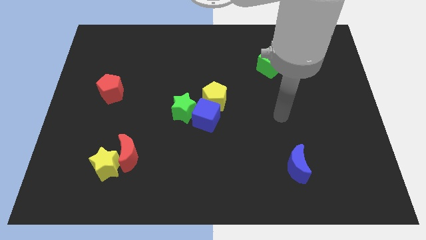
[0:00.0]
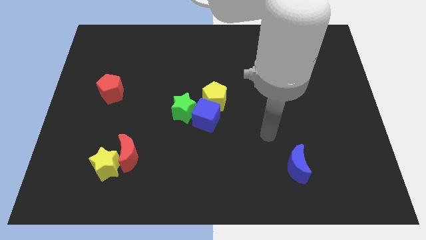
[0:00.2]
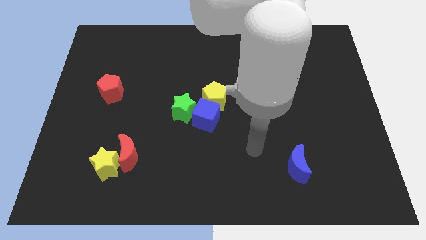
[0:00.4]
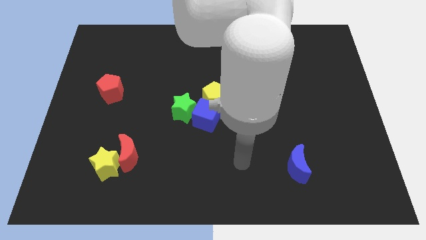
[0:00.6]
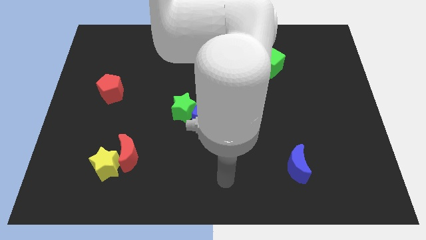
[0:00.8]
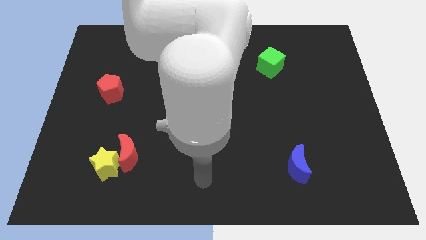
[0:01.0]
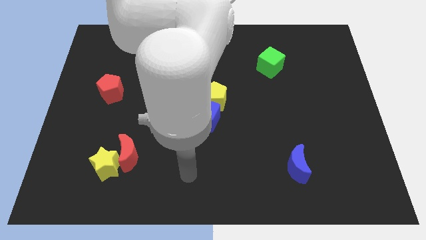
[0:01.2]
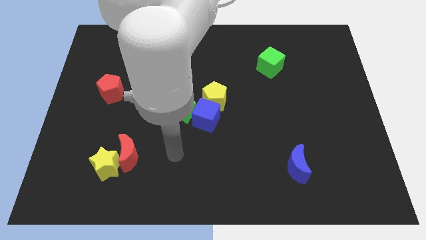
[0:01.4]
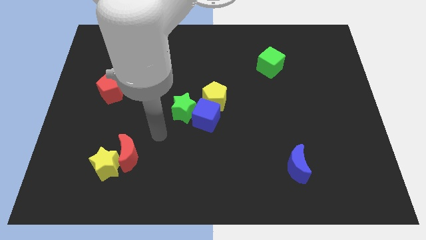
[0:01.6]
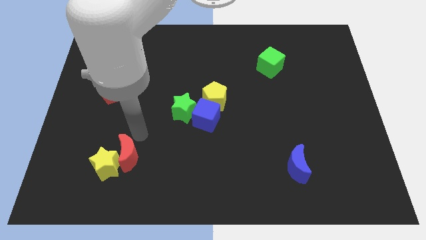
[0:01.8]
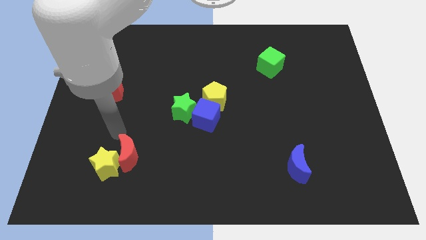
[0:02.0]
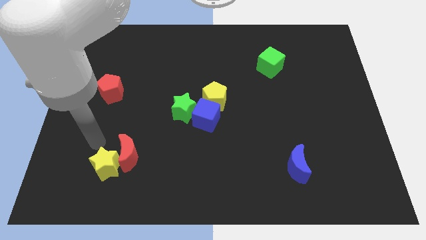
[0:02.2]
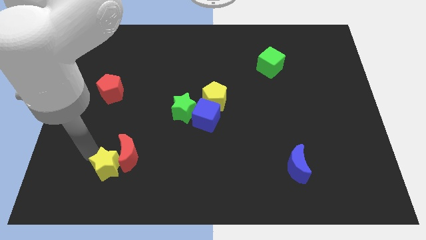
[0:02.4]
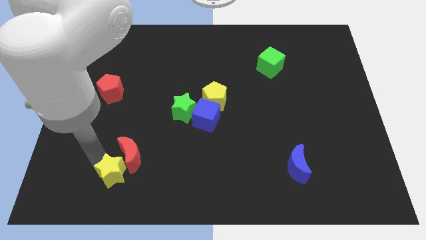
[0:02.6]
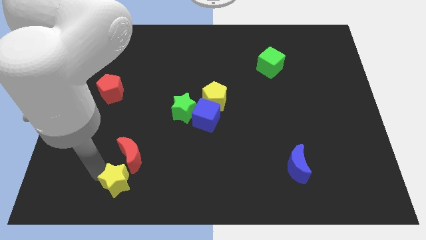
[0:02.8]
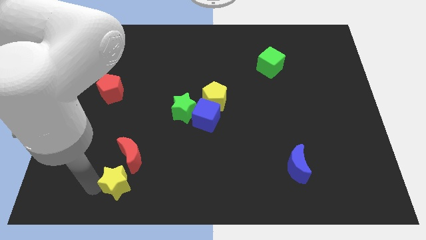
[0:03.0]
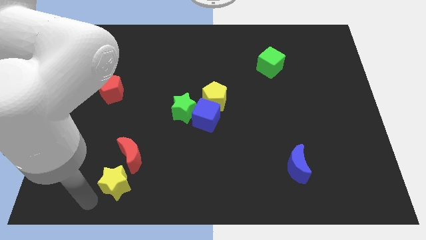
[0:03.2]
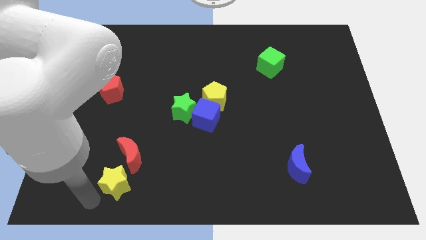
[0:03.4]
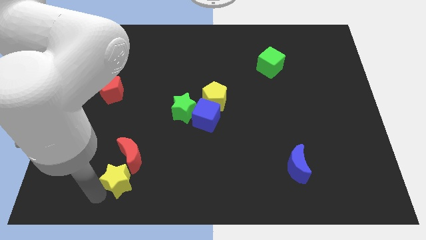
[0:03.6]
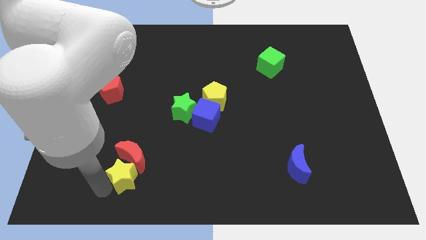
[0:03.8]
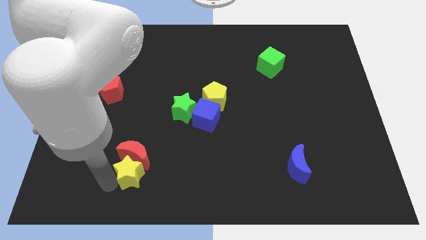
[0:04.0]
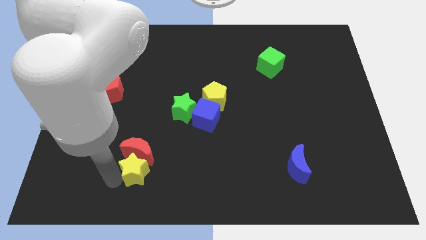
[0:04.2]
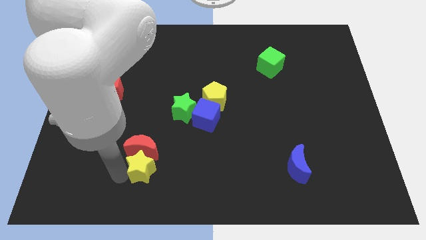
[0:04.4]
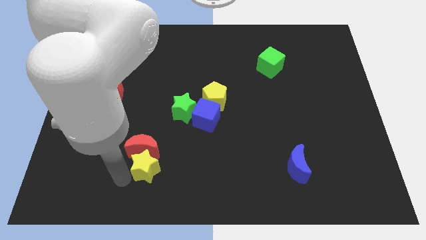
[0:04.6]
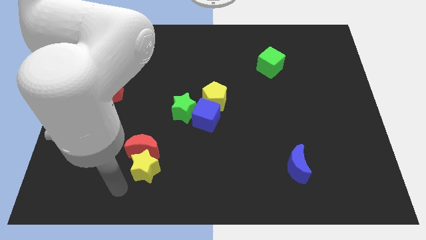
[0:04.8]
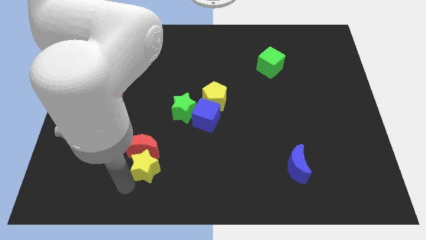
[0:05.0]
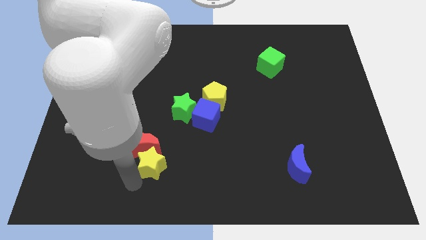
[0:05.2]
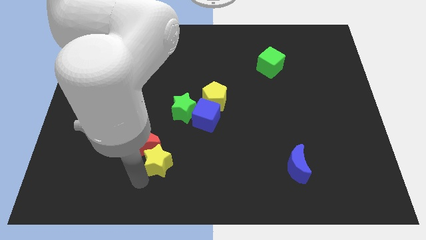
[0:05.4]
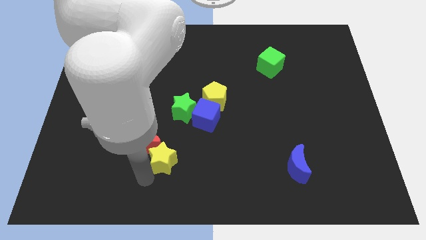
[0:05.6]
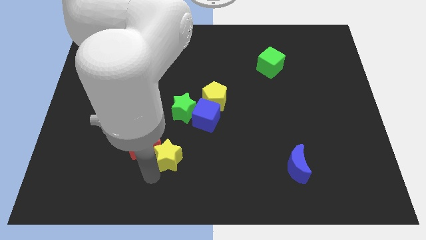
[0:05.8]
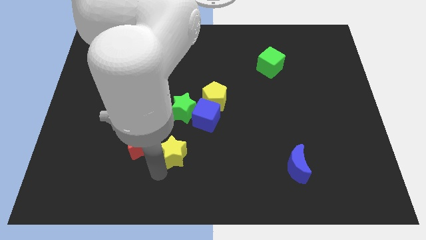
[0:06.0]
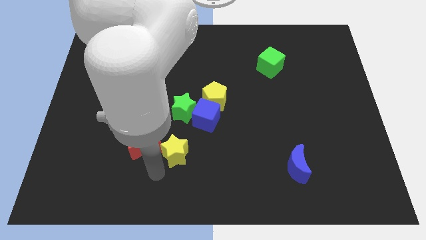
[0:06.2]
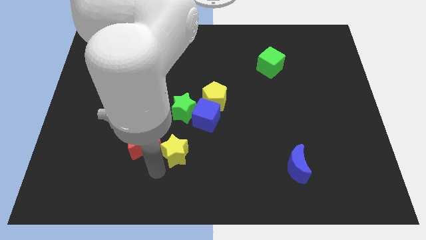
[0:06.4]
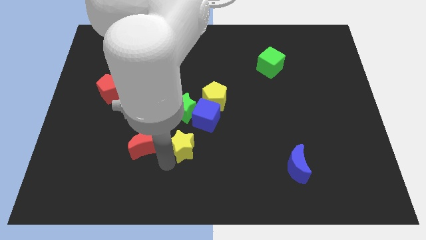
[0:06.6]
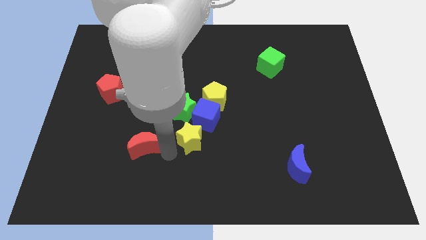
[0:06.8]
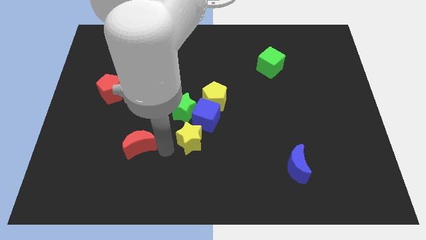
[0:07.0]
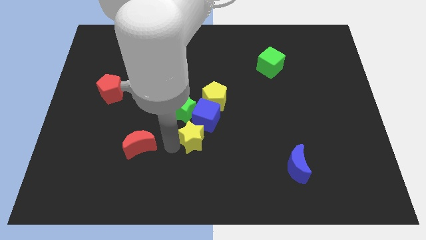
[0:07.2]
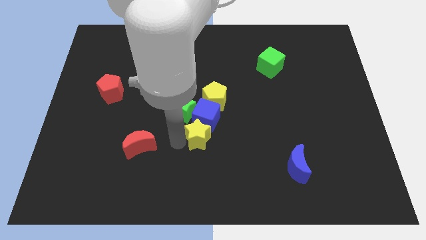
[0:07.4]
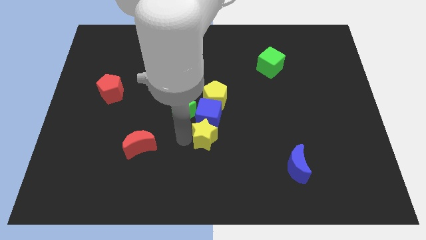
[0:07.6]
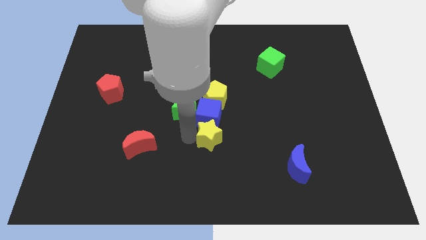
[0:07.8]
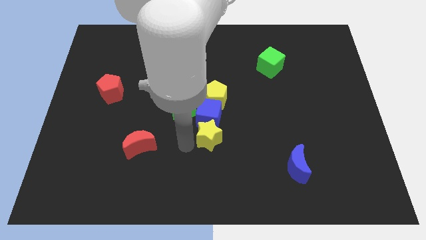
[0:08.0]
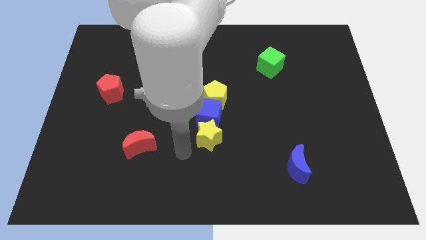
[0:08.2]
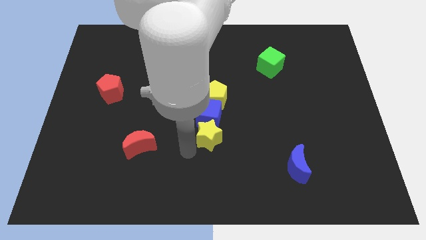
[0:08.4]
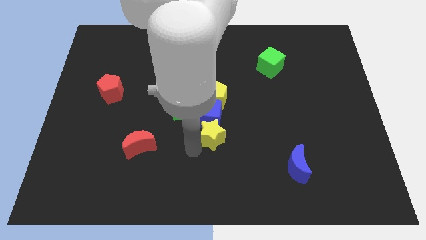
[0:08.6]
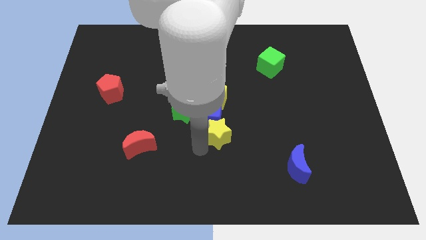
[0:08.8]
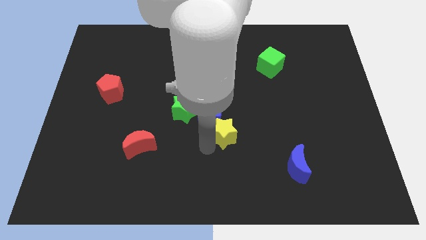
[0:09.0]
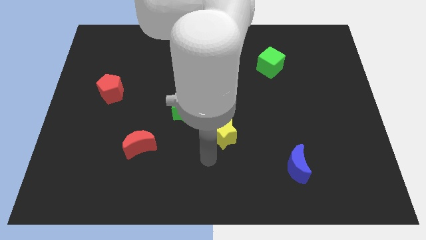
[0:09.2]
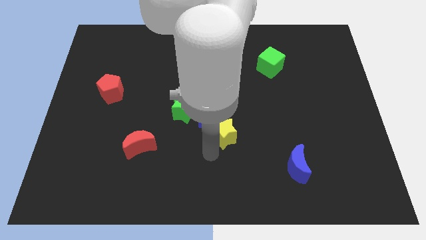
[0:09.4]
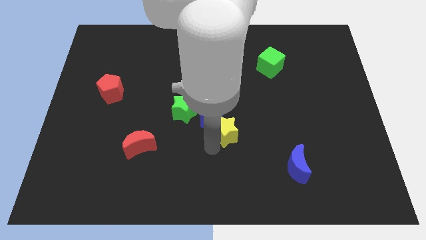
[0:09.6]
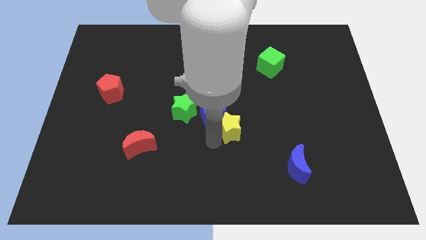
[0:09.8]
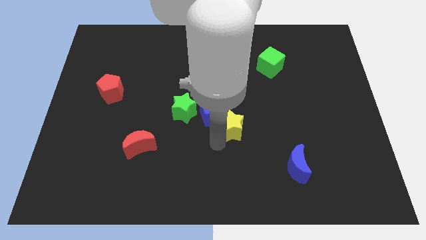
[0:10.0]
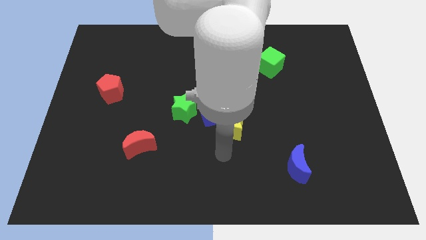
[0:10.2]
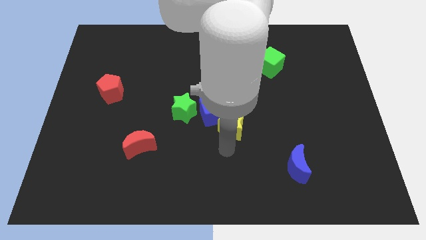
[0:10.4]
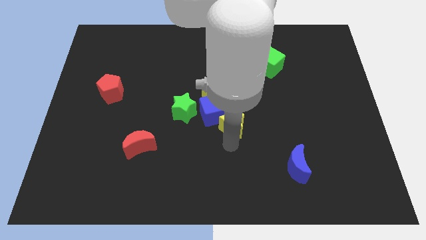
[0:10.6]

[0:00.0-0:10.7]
put the yellow star diagonally down and to the right of the yellow pentagon

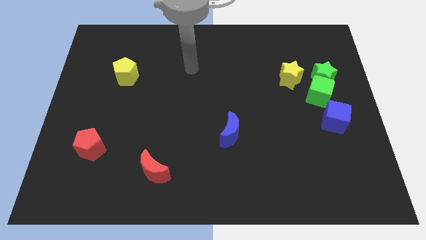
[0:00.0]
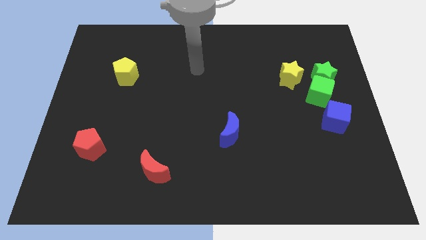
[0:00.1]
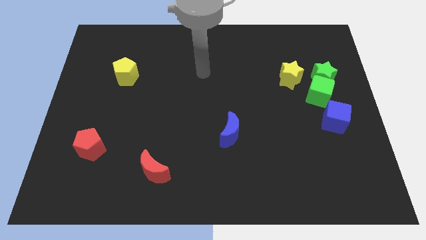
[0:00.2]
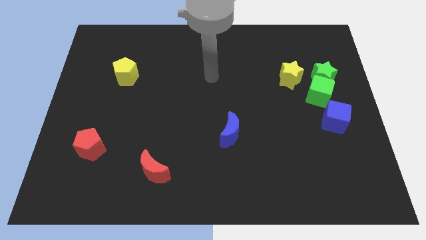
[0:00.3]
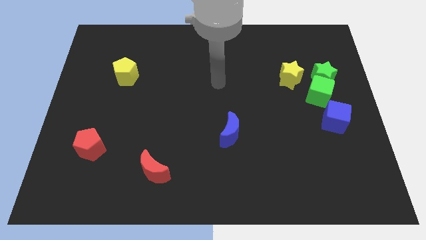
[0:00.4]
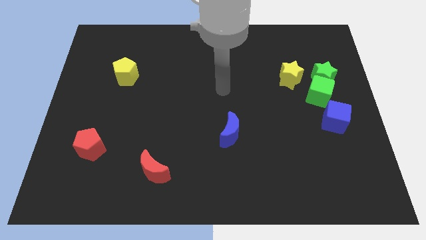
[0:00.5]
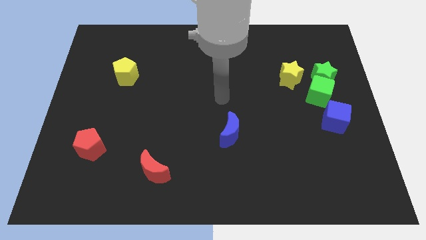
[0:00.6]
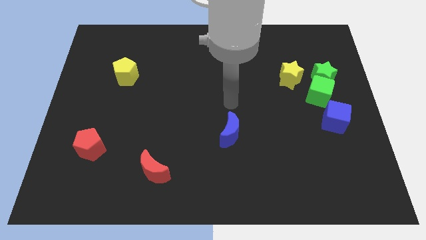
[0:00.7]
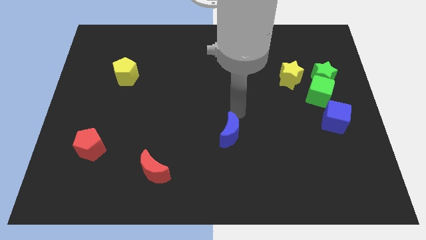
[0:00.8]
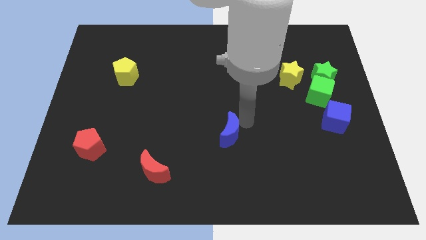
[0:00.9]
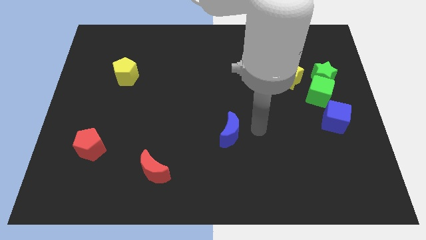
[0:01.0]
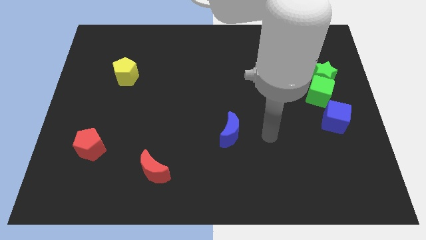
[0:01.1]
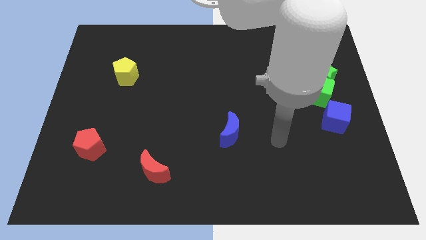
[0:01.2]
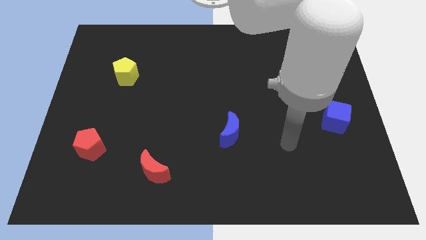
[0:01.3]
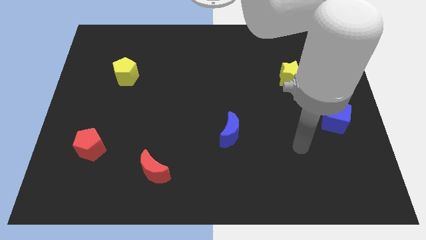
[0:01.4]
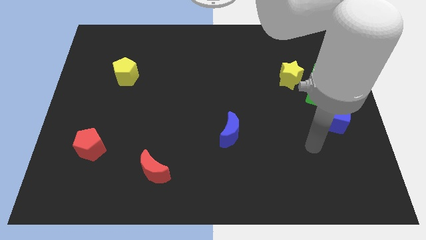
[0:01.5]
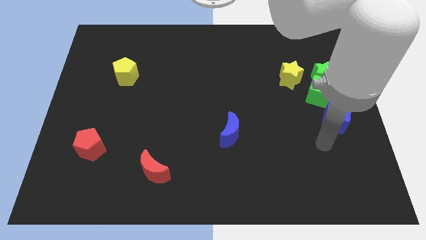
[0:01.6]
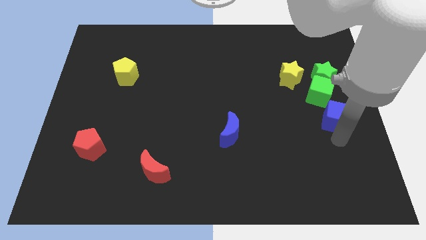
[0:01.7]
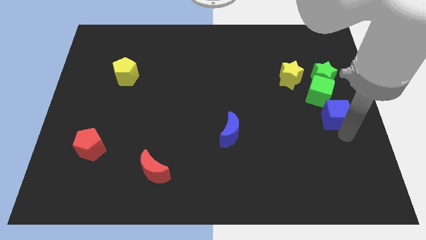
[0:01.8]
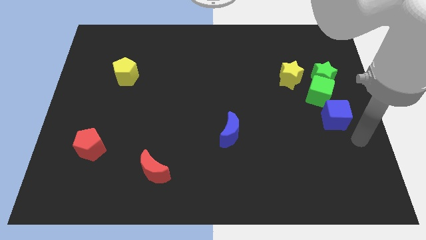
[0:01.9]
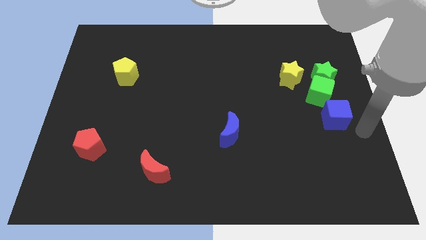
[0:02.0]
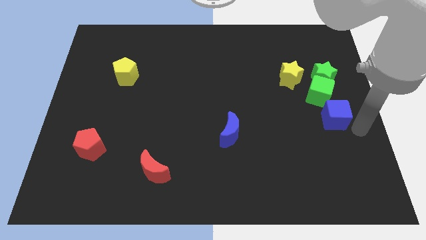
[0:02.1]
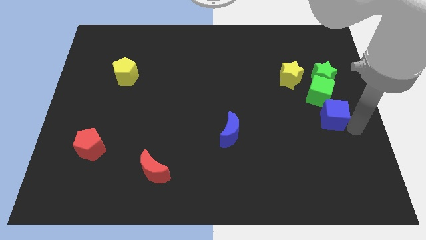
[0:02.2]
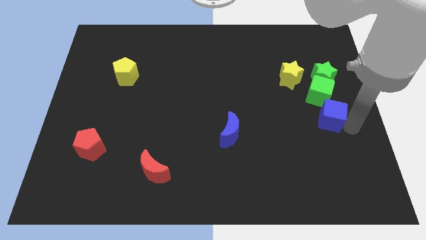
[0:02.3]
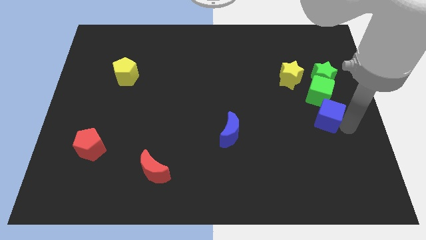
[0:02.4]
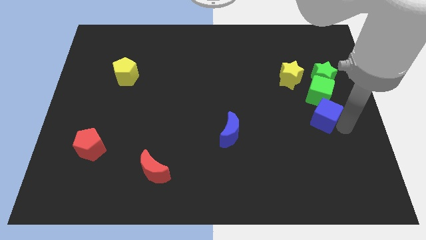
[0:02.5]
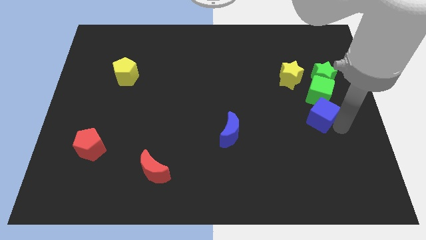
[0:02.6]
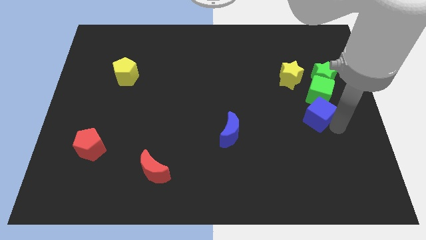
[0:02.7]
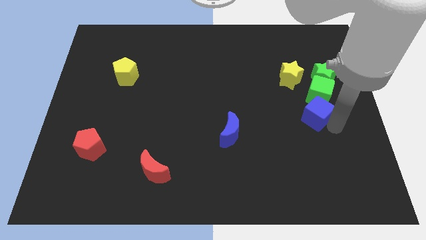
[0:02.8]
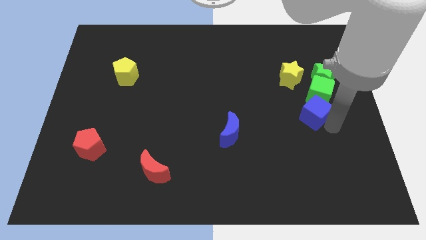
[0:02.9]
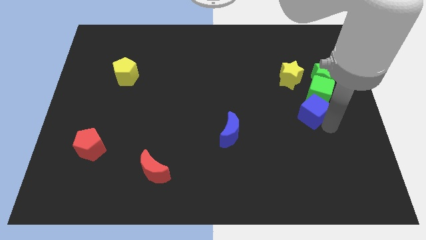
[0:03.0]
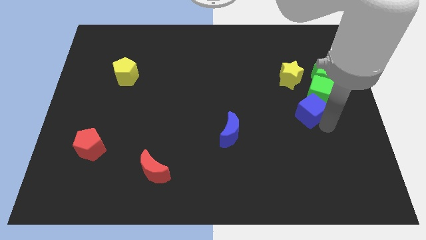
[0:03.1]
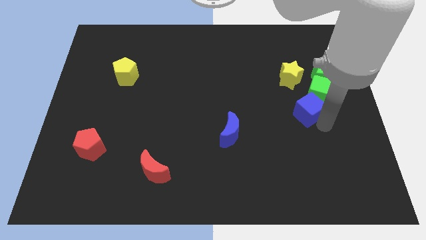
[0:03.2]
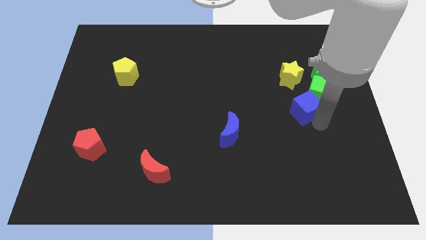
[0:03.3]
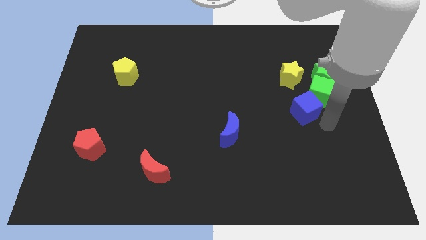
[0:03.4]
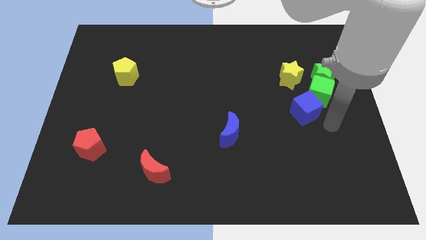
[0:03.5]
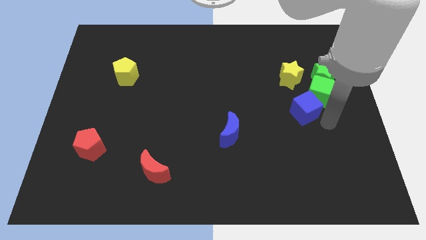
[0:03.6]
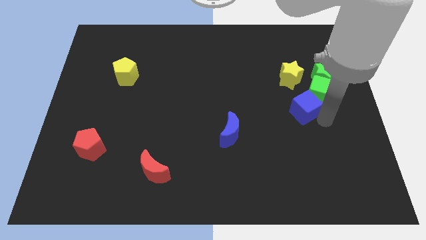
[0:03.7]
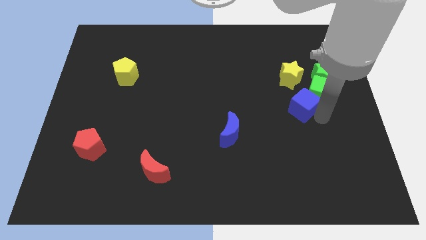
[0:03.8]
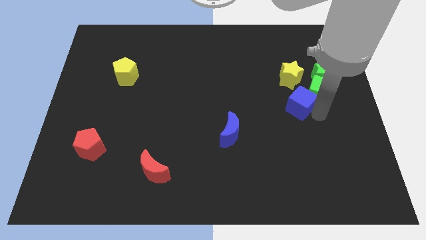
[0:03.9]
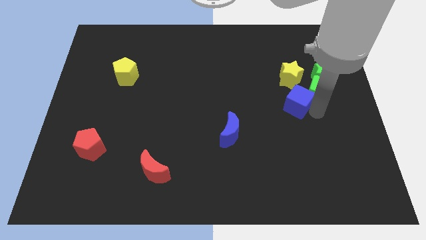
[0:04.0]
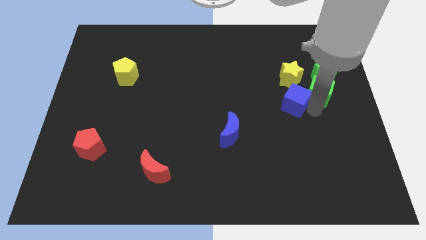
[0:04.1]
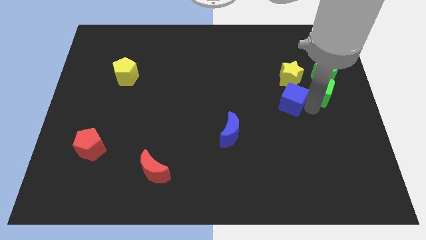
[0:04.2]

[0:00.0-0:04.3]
push the blue cube to the bottom left side of the yellow star
